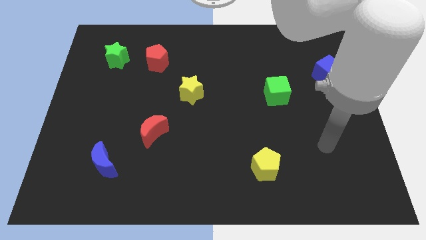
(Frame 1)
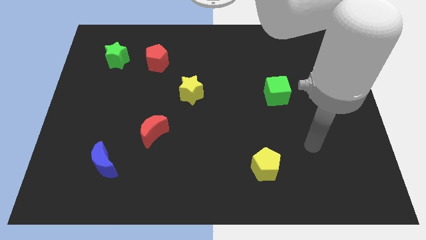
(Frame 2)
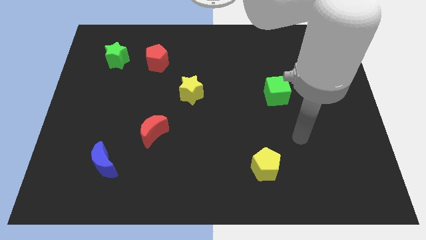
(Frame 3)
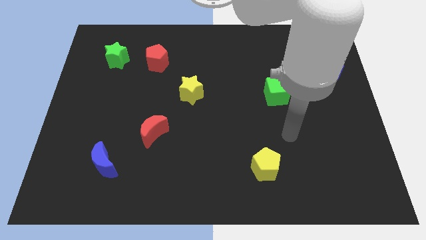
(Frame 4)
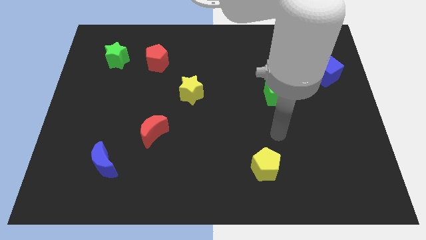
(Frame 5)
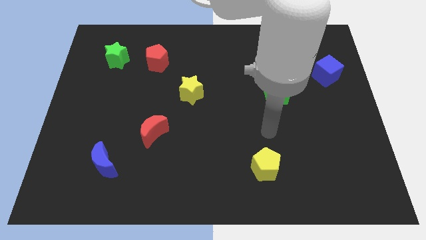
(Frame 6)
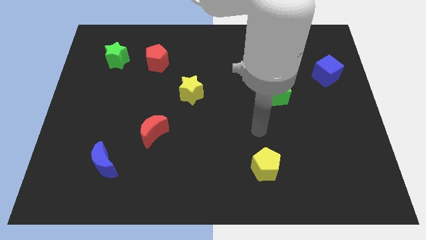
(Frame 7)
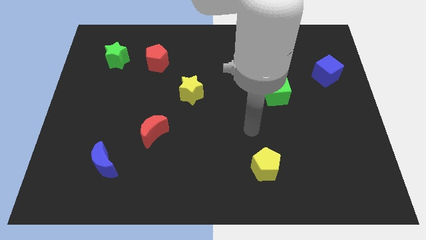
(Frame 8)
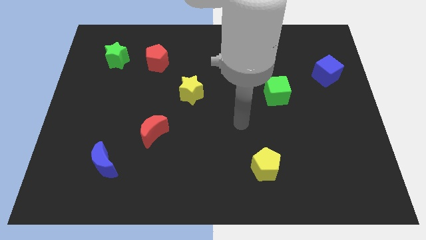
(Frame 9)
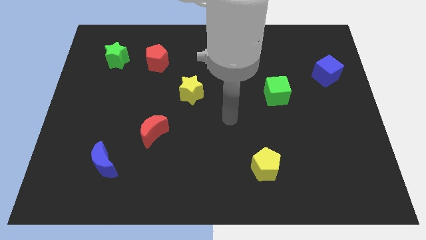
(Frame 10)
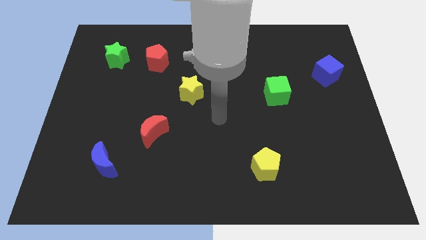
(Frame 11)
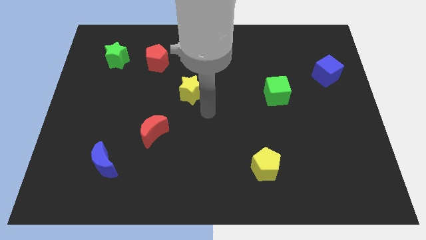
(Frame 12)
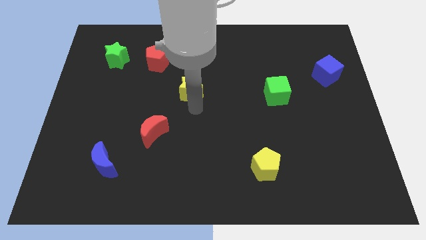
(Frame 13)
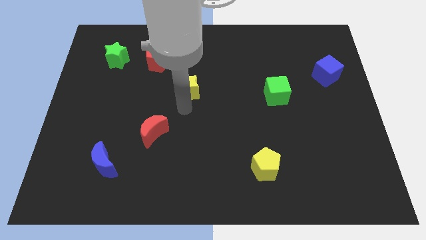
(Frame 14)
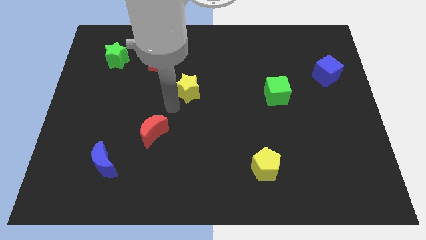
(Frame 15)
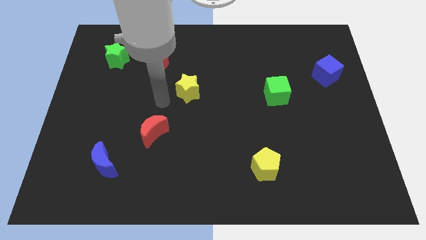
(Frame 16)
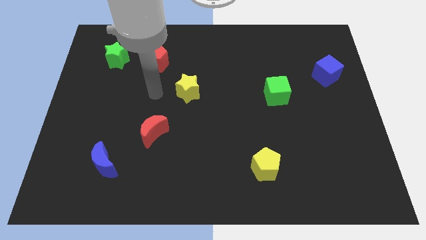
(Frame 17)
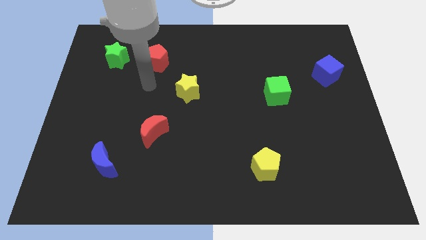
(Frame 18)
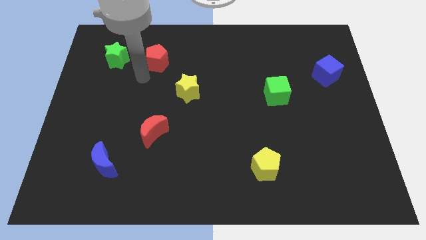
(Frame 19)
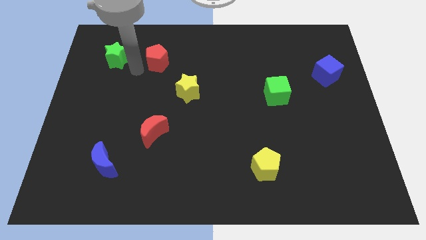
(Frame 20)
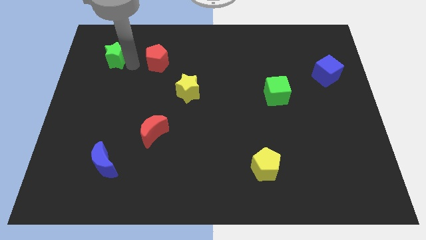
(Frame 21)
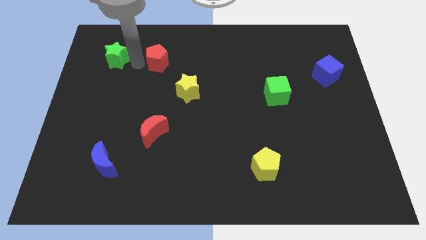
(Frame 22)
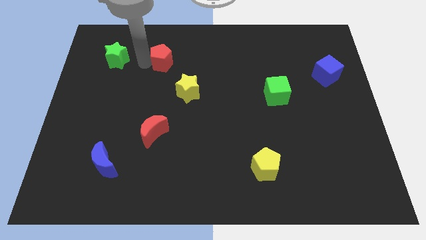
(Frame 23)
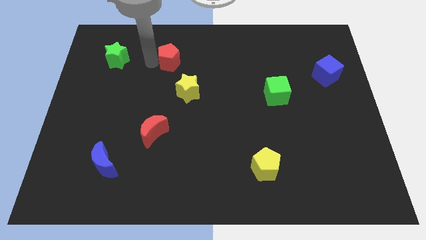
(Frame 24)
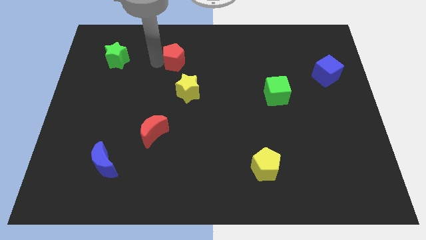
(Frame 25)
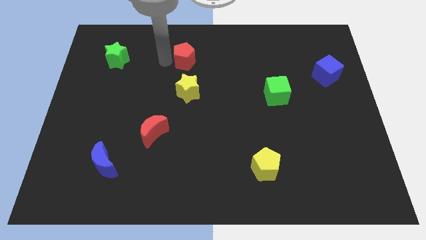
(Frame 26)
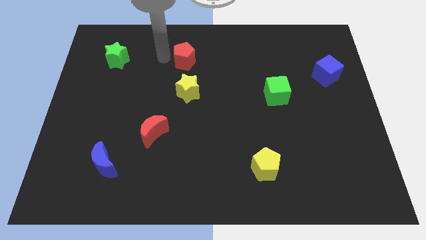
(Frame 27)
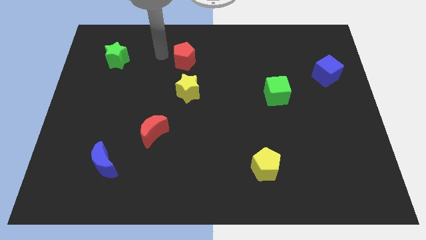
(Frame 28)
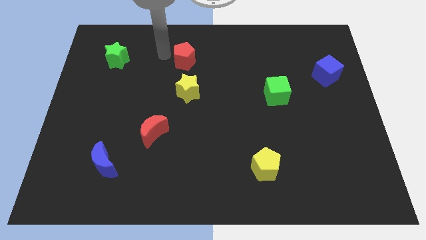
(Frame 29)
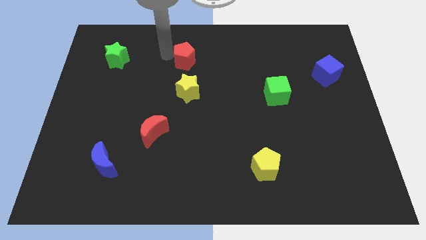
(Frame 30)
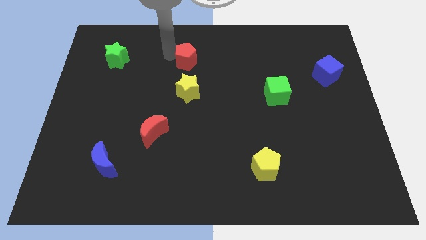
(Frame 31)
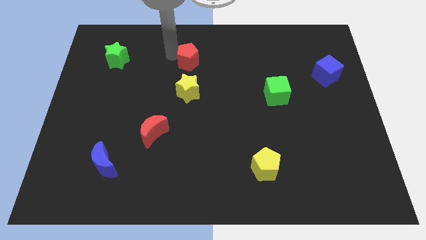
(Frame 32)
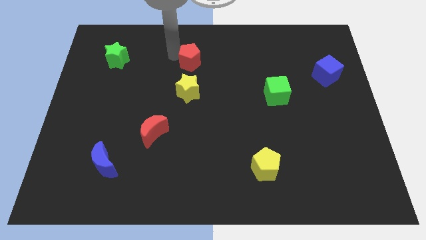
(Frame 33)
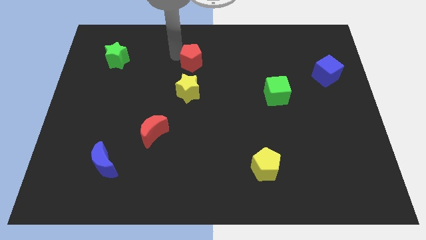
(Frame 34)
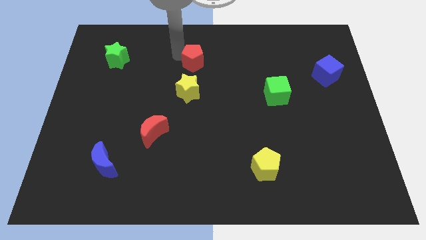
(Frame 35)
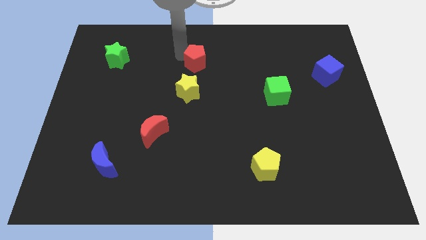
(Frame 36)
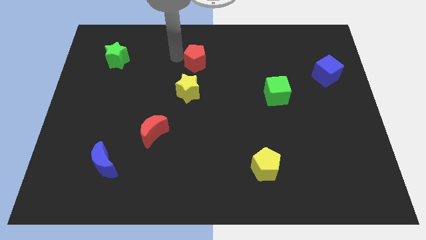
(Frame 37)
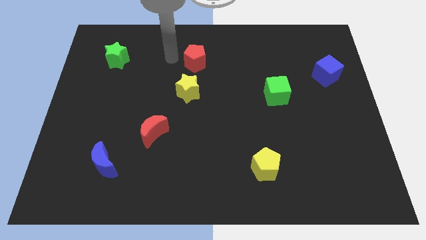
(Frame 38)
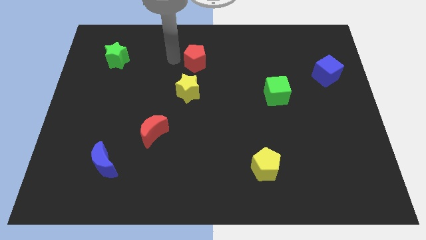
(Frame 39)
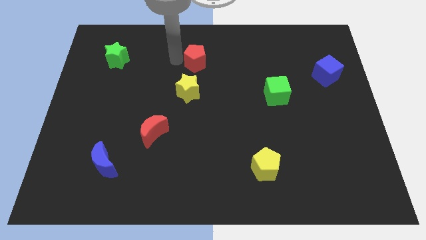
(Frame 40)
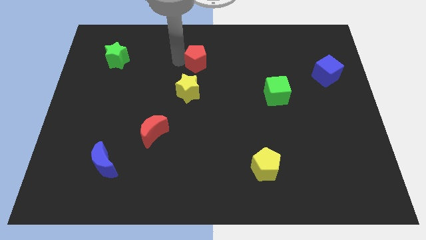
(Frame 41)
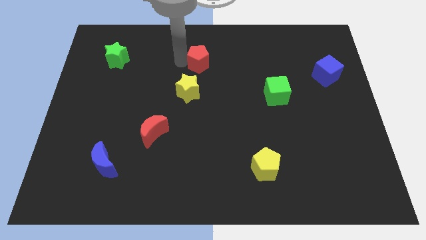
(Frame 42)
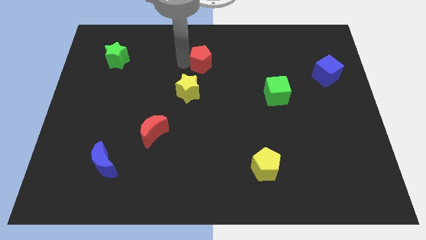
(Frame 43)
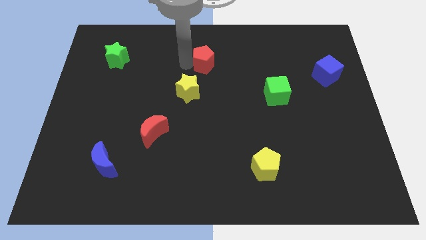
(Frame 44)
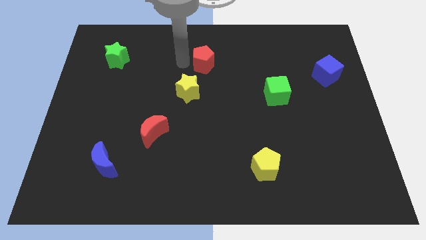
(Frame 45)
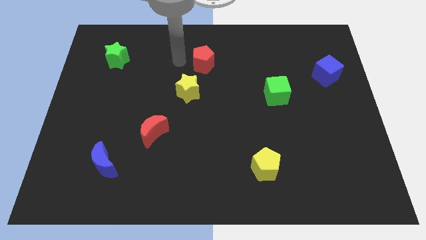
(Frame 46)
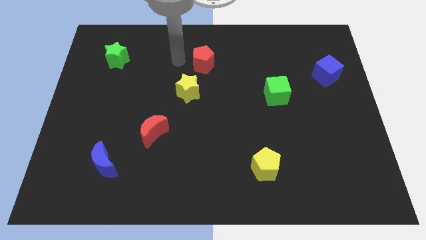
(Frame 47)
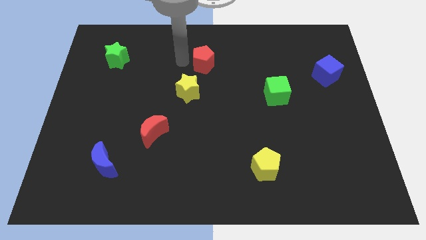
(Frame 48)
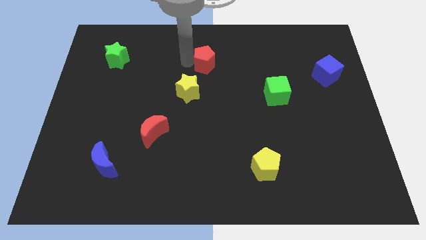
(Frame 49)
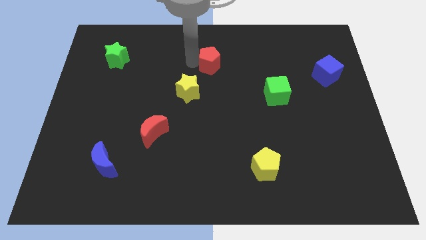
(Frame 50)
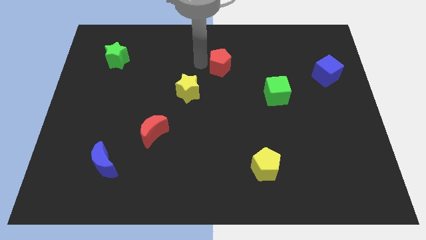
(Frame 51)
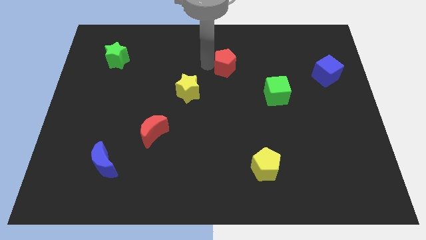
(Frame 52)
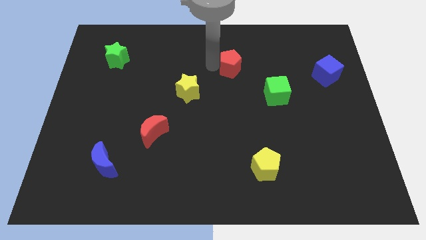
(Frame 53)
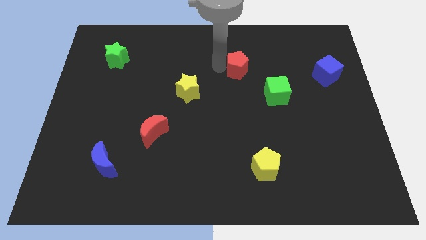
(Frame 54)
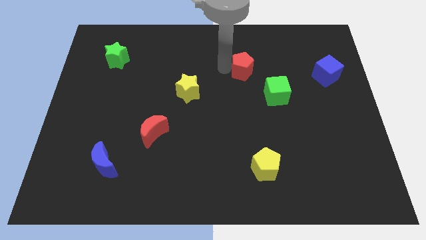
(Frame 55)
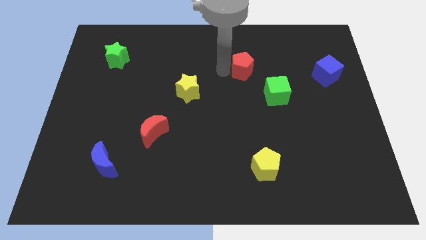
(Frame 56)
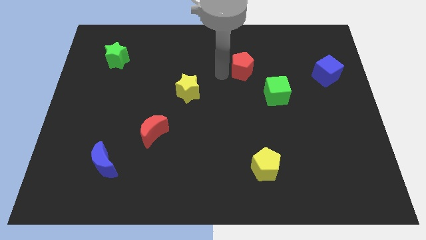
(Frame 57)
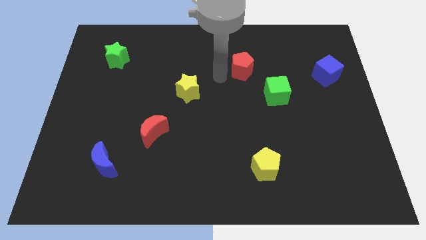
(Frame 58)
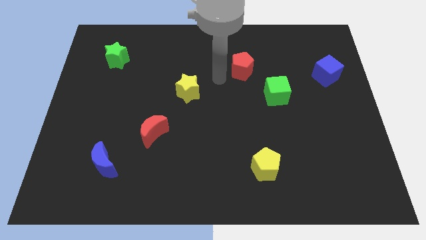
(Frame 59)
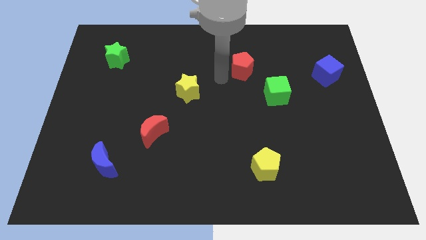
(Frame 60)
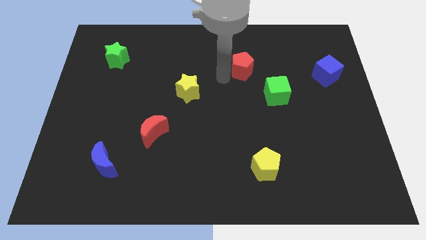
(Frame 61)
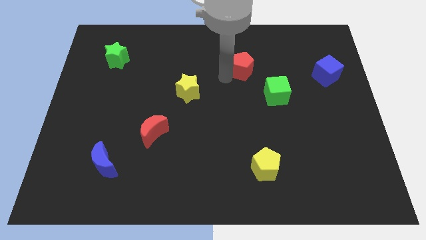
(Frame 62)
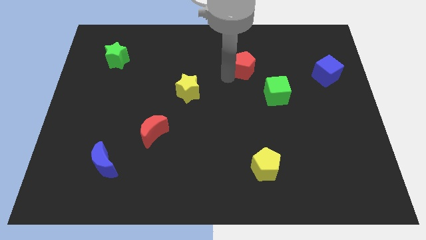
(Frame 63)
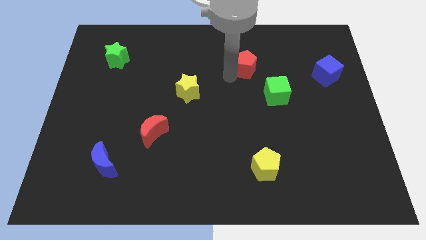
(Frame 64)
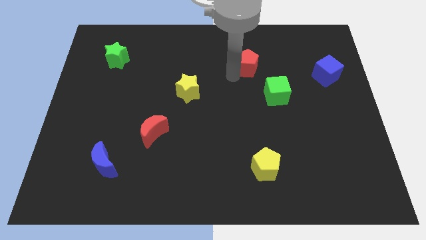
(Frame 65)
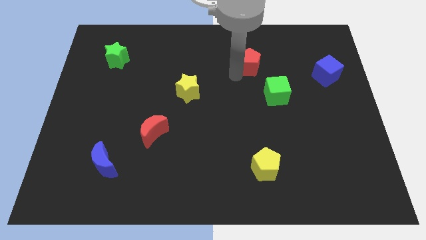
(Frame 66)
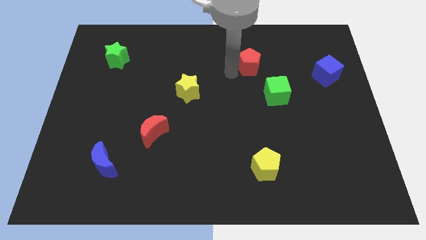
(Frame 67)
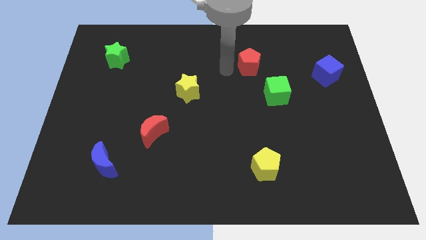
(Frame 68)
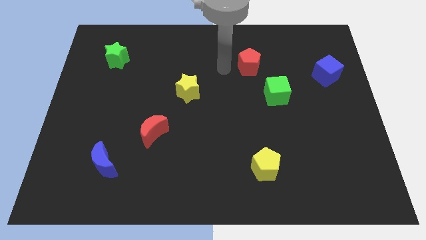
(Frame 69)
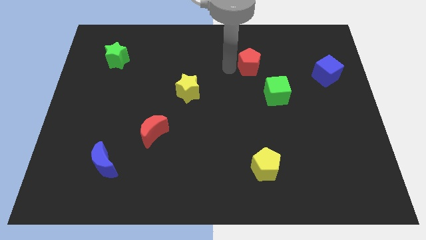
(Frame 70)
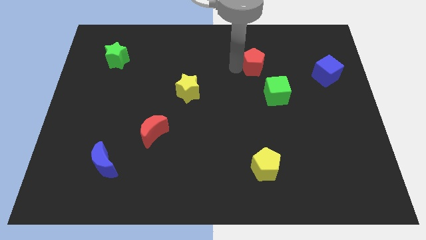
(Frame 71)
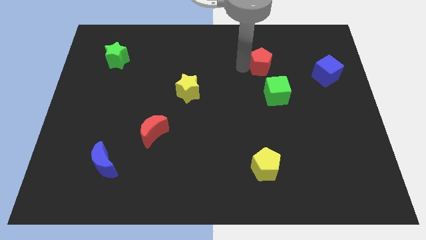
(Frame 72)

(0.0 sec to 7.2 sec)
slide the red pentagon to the top of the green cube
